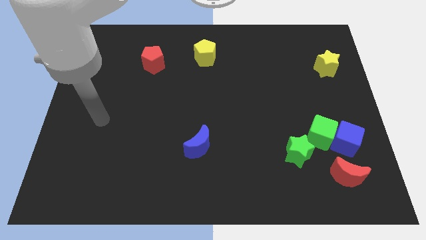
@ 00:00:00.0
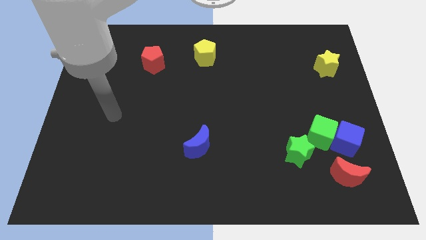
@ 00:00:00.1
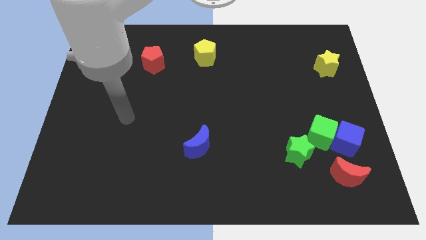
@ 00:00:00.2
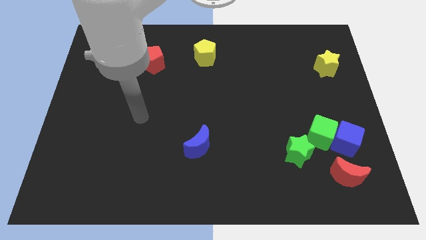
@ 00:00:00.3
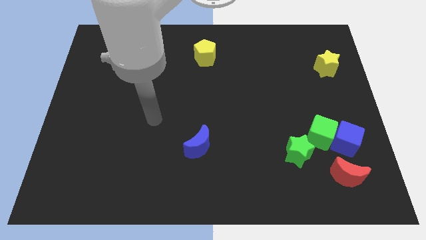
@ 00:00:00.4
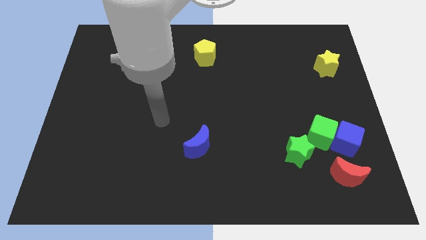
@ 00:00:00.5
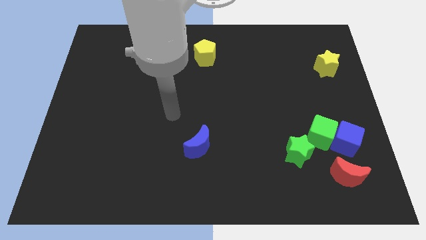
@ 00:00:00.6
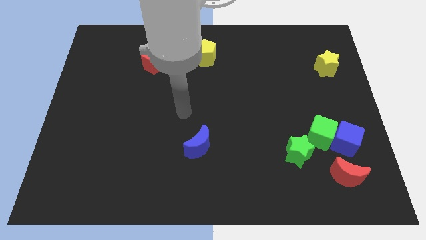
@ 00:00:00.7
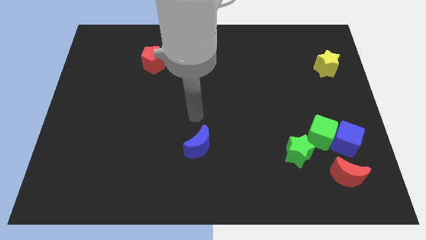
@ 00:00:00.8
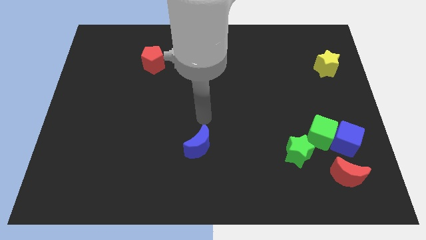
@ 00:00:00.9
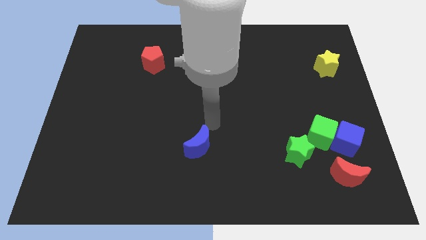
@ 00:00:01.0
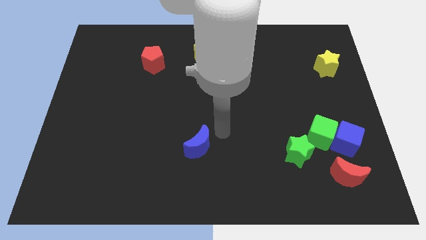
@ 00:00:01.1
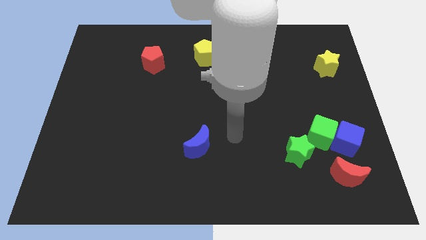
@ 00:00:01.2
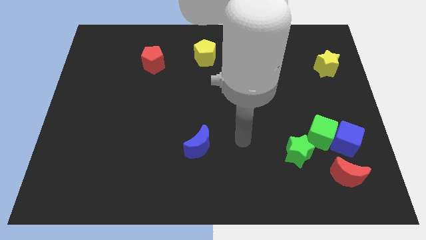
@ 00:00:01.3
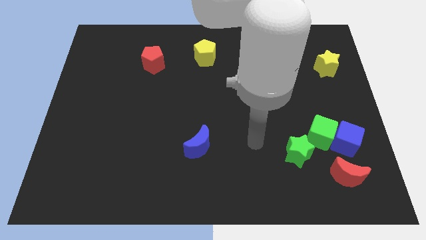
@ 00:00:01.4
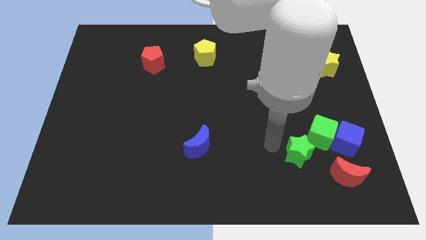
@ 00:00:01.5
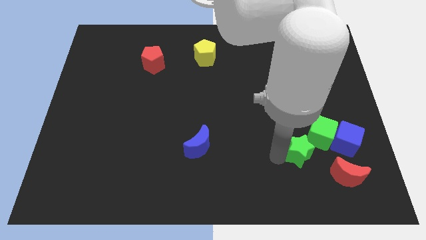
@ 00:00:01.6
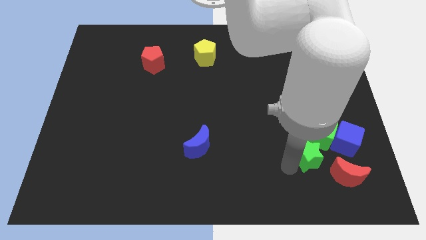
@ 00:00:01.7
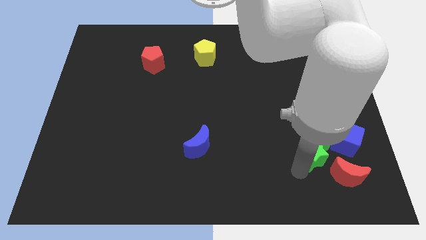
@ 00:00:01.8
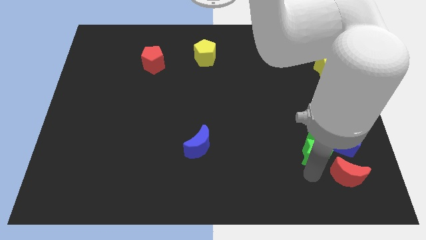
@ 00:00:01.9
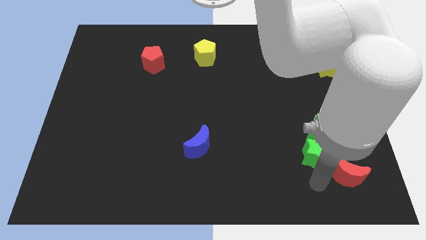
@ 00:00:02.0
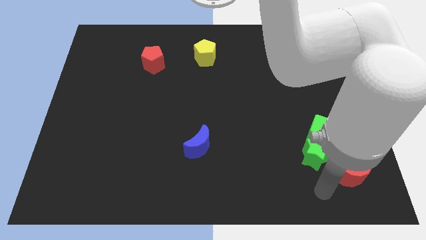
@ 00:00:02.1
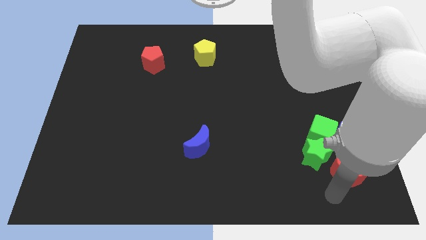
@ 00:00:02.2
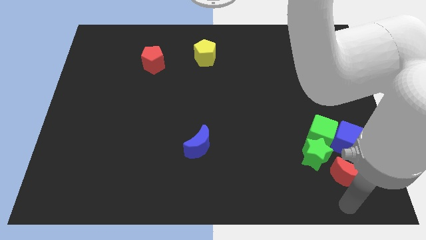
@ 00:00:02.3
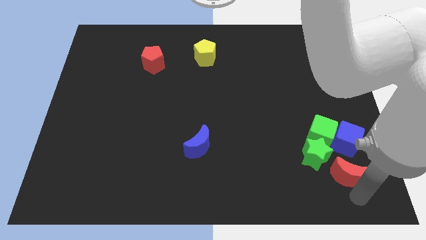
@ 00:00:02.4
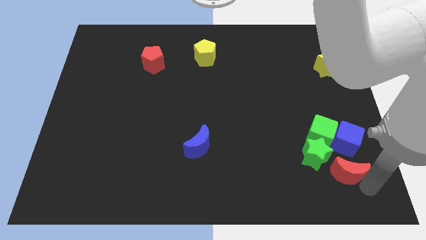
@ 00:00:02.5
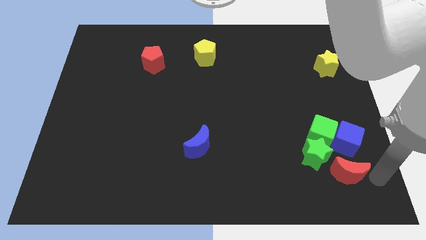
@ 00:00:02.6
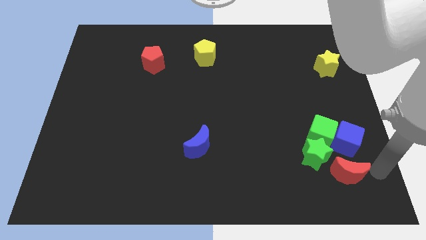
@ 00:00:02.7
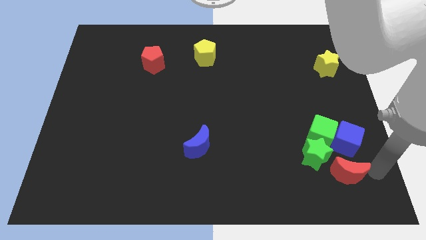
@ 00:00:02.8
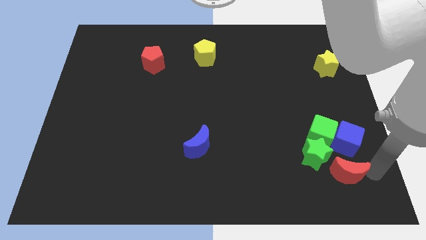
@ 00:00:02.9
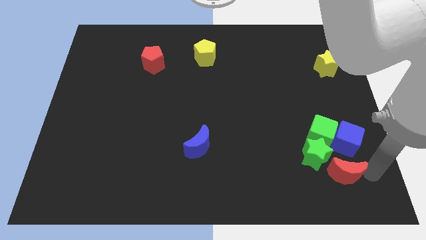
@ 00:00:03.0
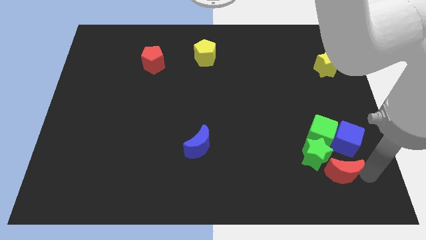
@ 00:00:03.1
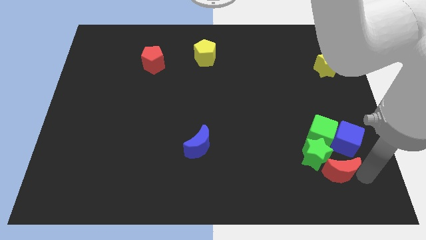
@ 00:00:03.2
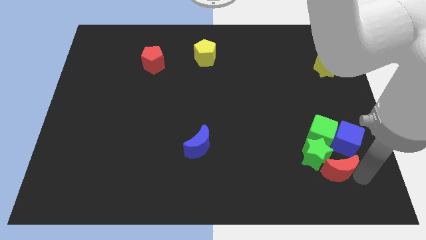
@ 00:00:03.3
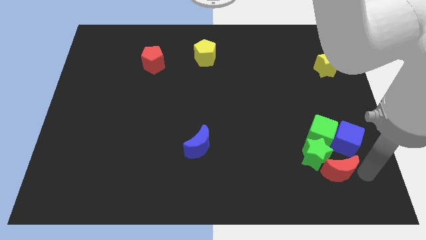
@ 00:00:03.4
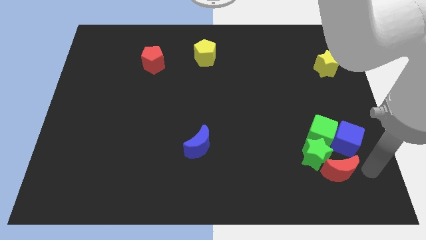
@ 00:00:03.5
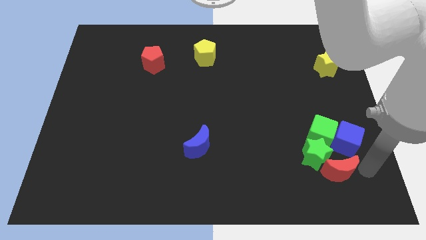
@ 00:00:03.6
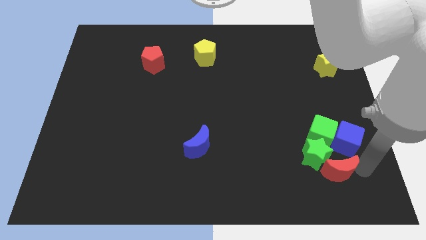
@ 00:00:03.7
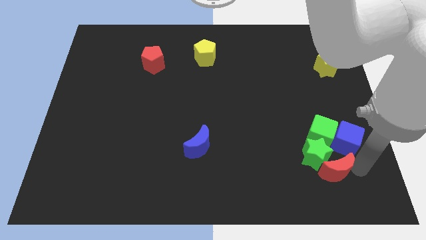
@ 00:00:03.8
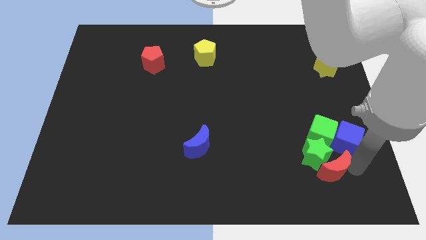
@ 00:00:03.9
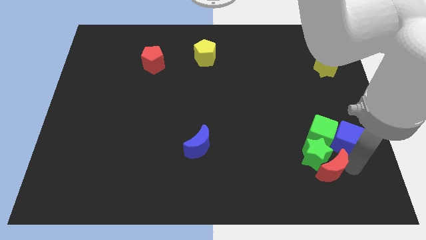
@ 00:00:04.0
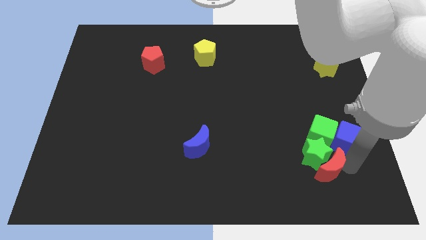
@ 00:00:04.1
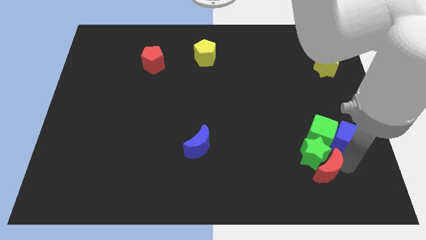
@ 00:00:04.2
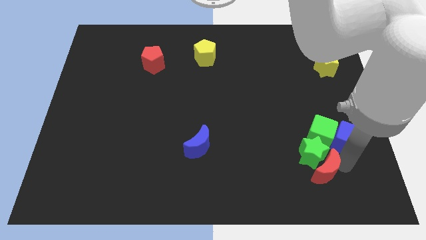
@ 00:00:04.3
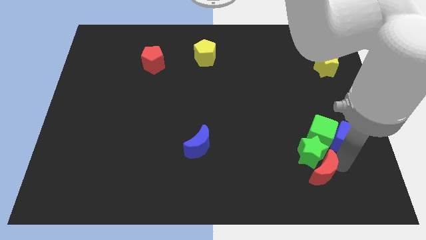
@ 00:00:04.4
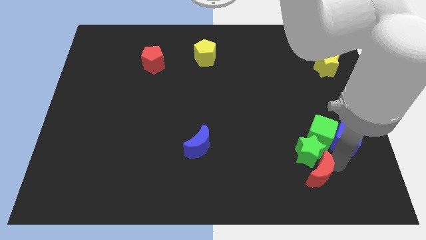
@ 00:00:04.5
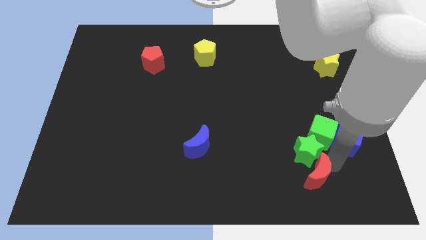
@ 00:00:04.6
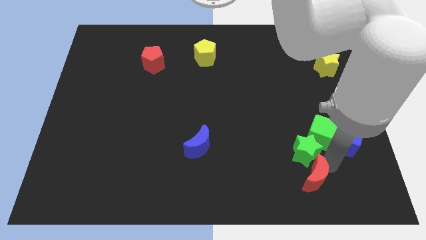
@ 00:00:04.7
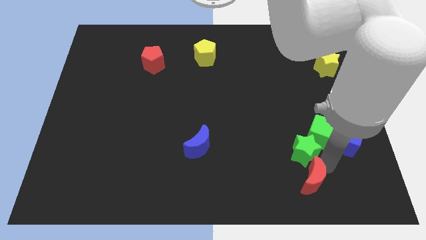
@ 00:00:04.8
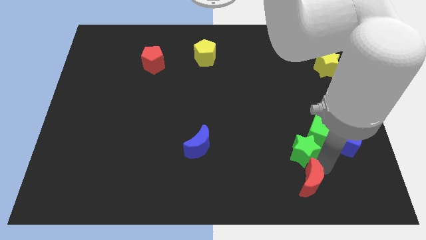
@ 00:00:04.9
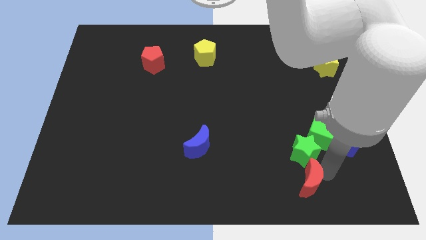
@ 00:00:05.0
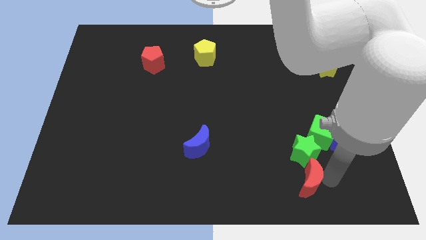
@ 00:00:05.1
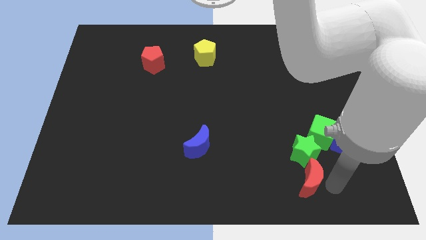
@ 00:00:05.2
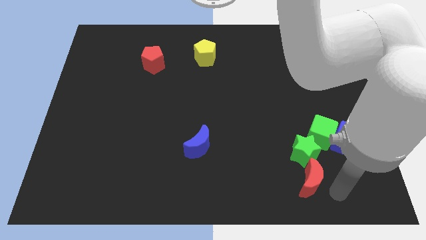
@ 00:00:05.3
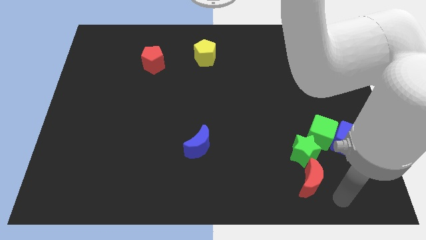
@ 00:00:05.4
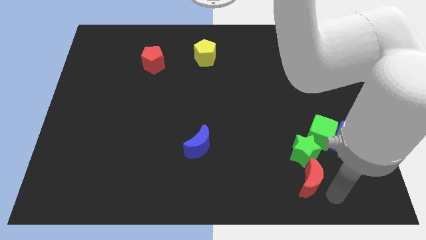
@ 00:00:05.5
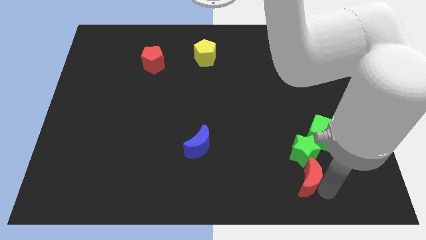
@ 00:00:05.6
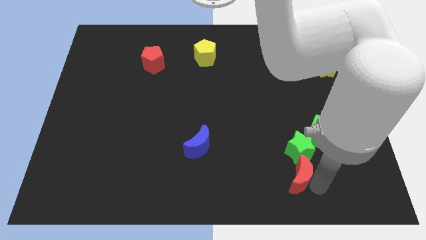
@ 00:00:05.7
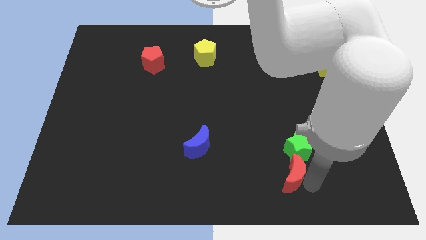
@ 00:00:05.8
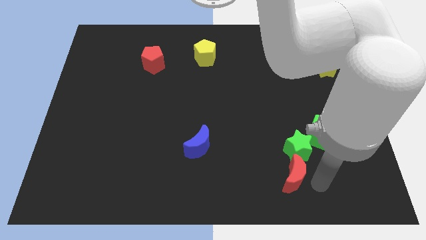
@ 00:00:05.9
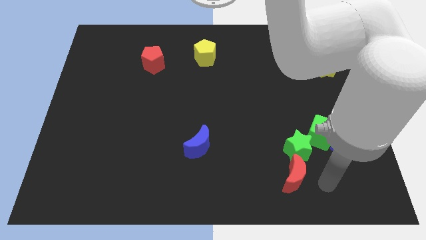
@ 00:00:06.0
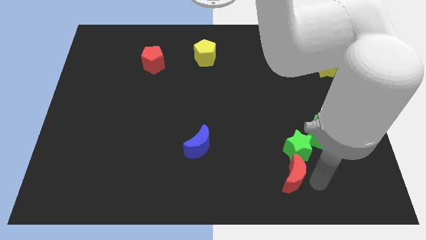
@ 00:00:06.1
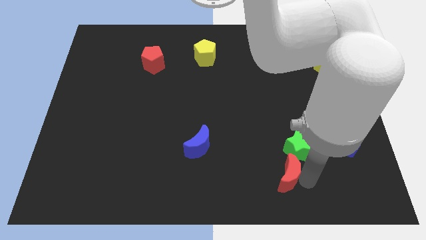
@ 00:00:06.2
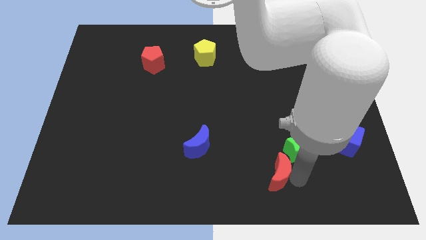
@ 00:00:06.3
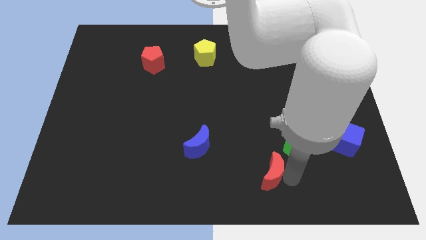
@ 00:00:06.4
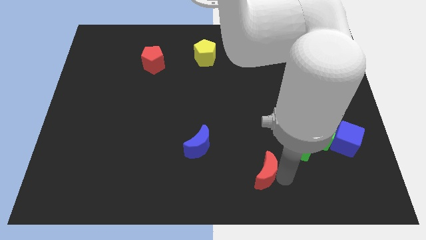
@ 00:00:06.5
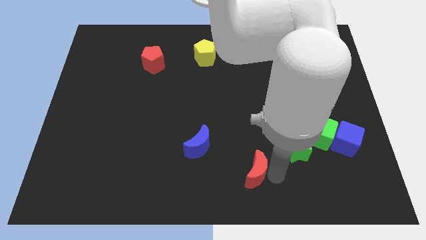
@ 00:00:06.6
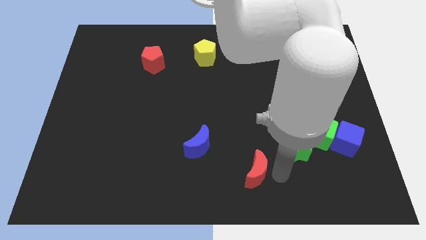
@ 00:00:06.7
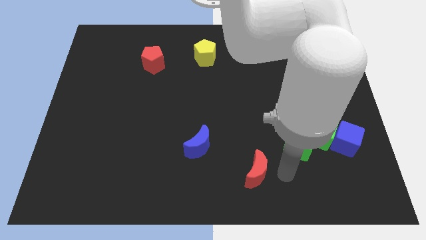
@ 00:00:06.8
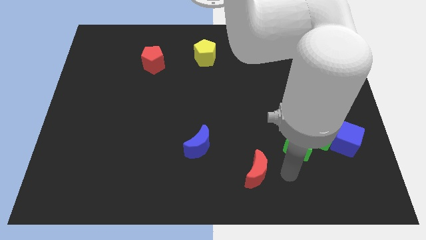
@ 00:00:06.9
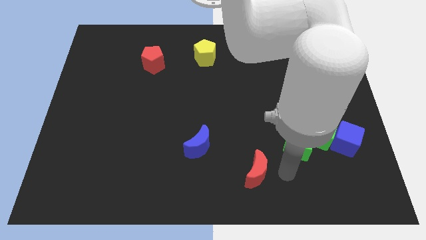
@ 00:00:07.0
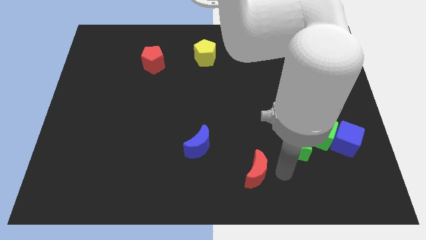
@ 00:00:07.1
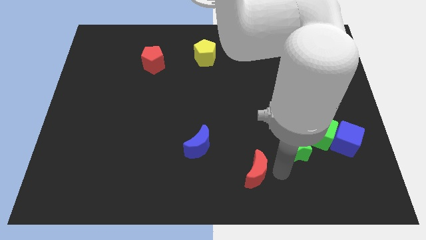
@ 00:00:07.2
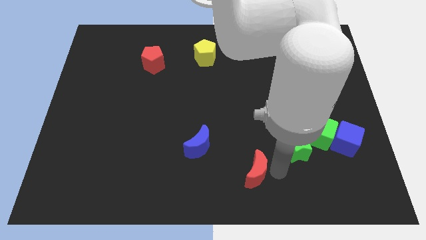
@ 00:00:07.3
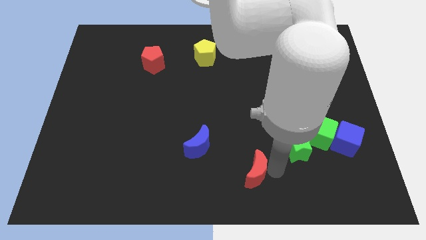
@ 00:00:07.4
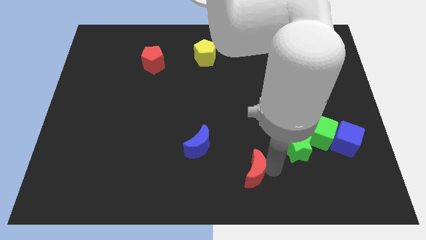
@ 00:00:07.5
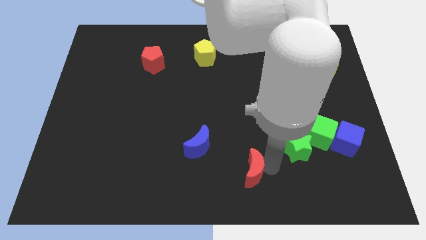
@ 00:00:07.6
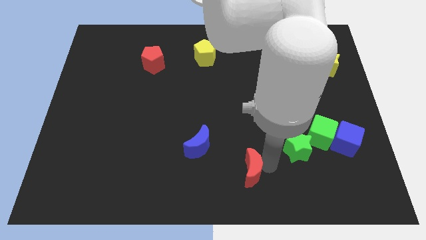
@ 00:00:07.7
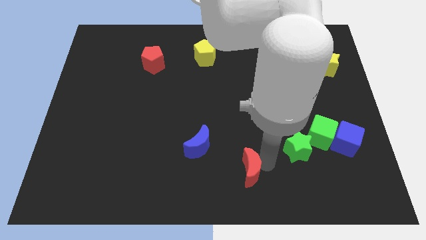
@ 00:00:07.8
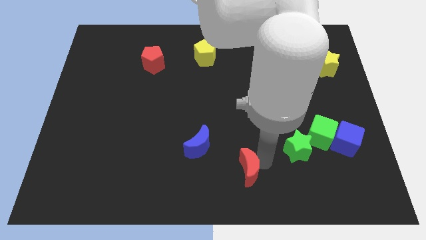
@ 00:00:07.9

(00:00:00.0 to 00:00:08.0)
move the red moon to the left

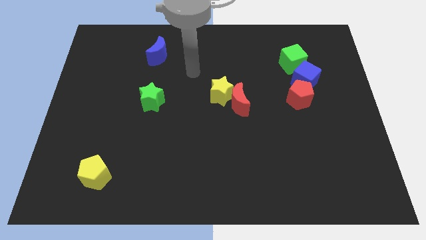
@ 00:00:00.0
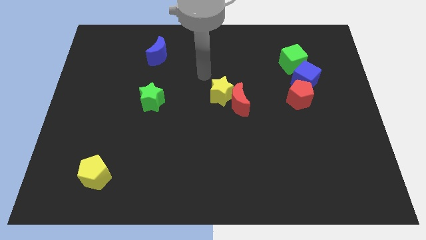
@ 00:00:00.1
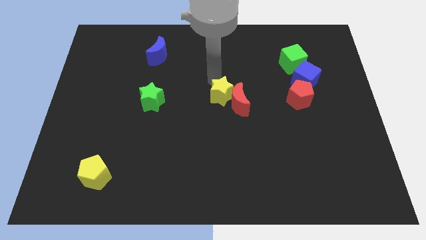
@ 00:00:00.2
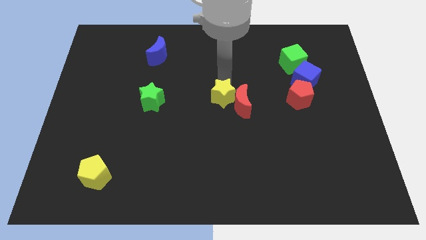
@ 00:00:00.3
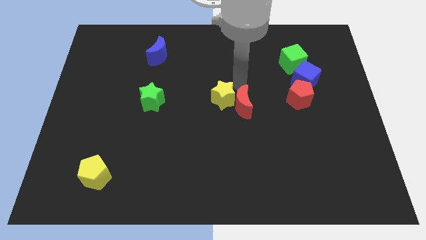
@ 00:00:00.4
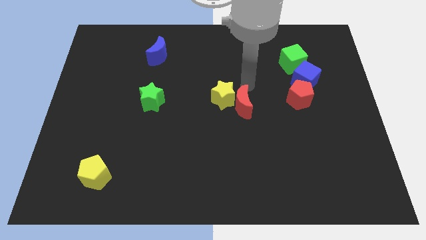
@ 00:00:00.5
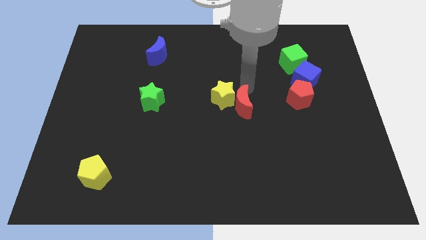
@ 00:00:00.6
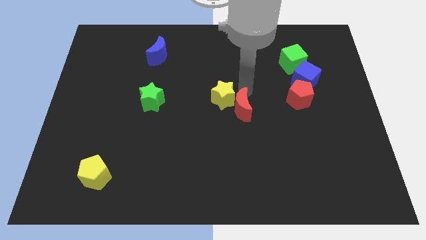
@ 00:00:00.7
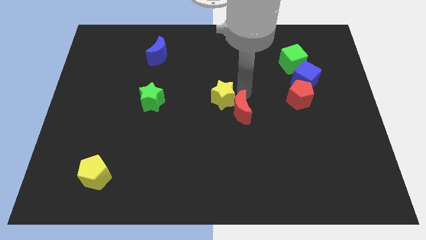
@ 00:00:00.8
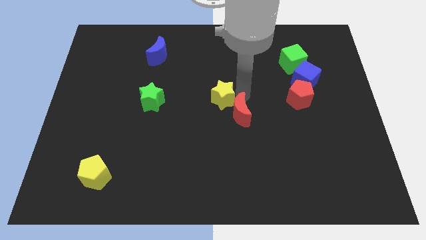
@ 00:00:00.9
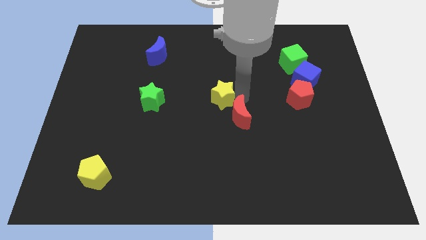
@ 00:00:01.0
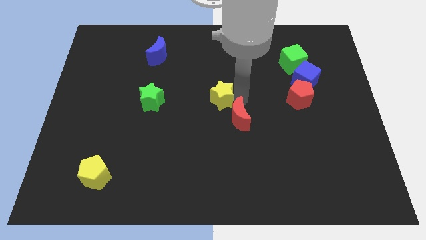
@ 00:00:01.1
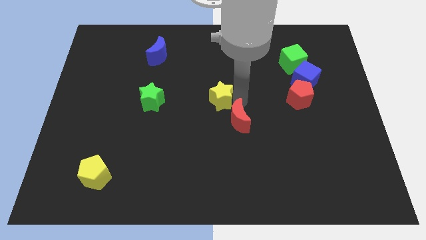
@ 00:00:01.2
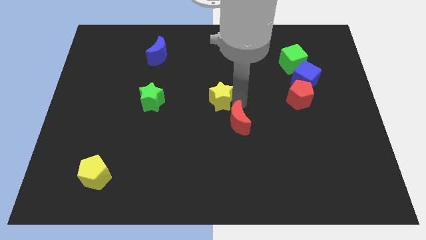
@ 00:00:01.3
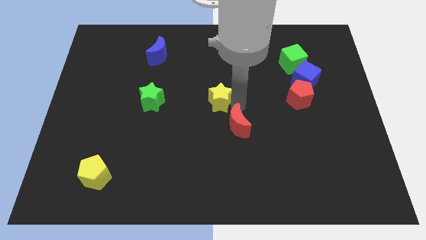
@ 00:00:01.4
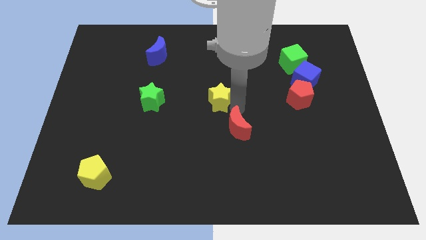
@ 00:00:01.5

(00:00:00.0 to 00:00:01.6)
push the red moon down a bit
